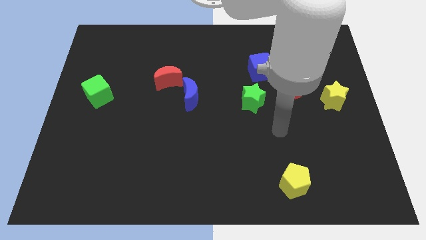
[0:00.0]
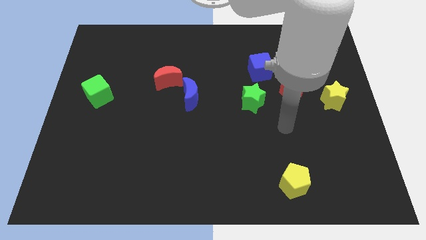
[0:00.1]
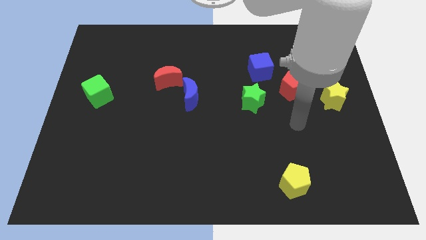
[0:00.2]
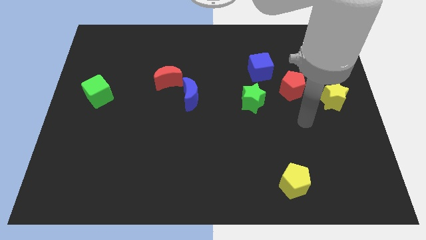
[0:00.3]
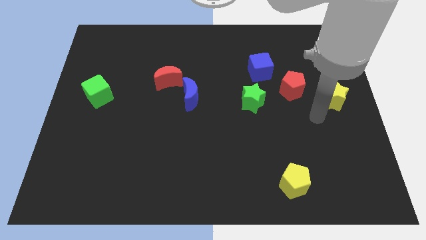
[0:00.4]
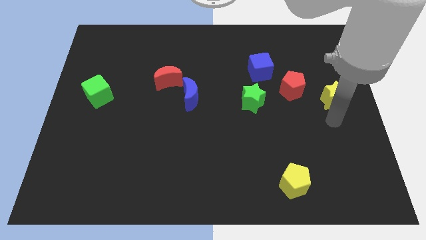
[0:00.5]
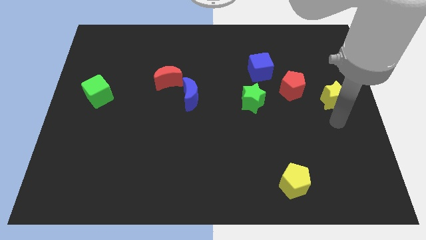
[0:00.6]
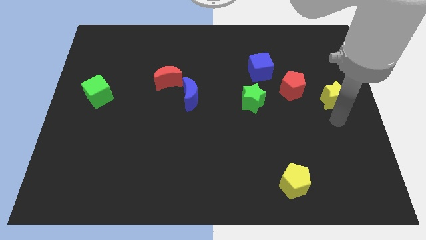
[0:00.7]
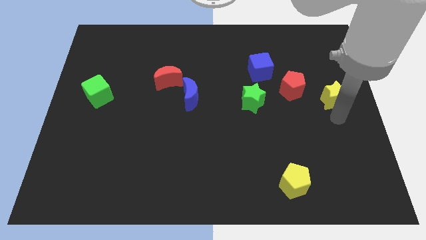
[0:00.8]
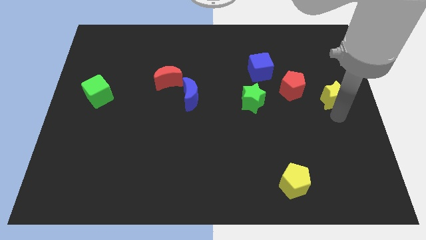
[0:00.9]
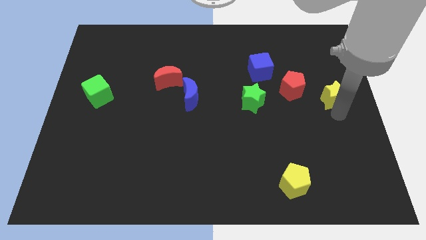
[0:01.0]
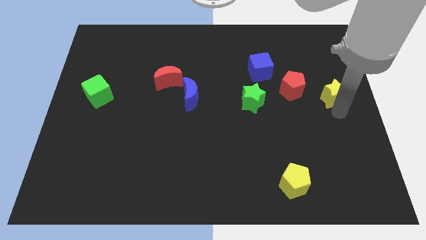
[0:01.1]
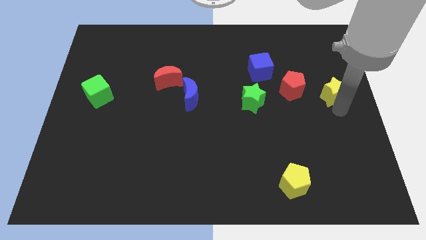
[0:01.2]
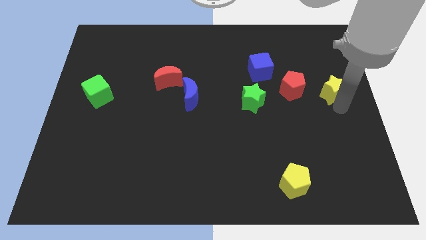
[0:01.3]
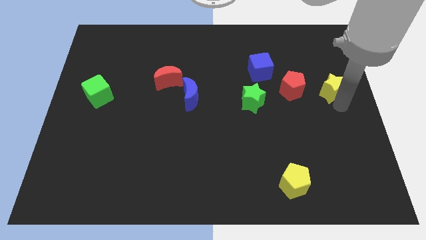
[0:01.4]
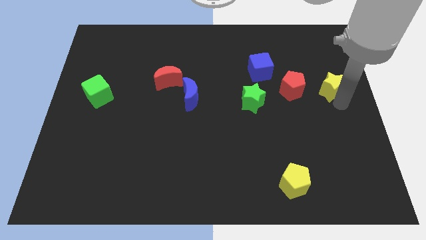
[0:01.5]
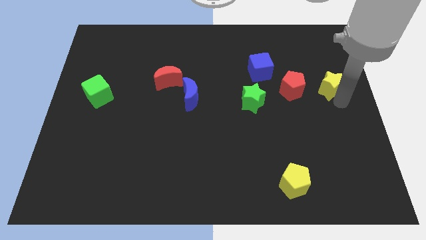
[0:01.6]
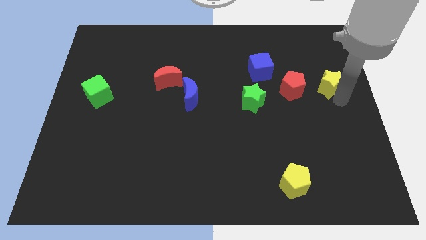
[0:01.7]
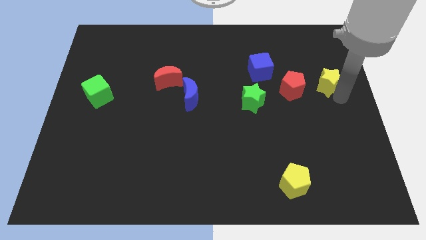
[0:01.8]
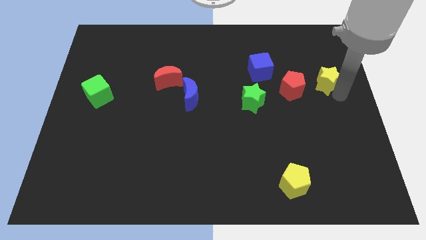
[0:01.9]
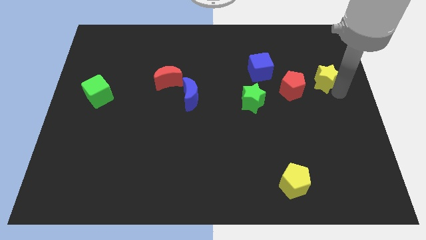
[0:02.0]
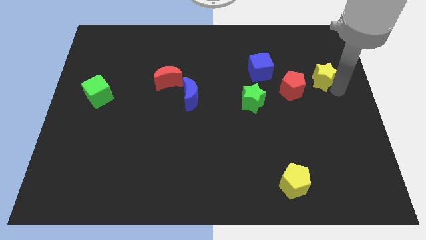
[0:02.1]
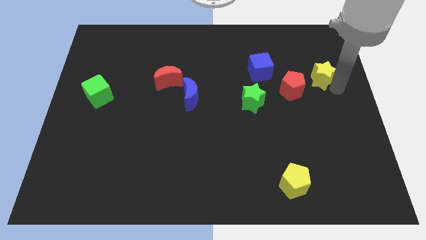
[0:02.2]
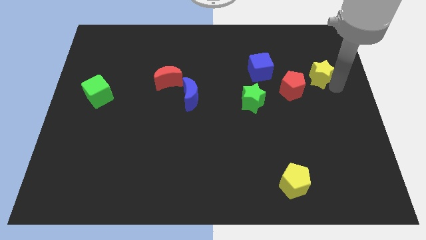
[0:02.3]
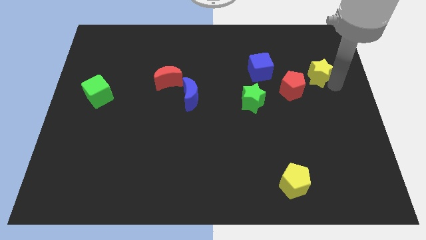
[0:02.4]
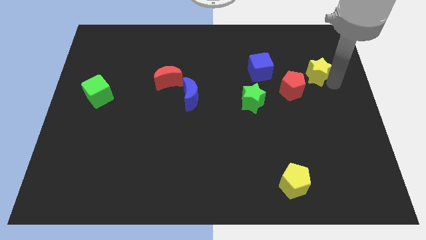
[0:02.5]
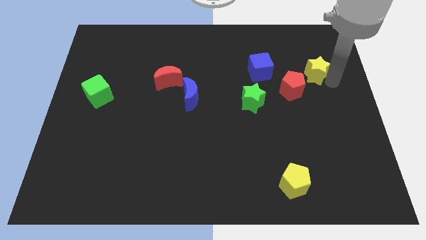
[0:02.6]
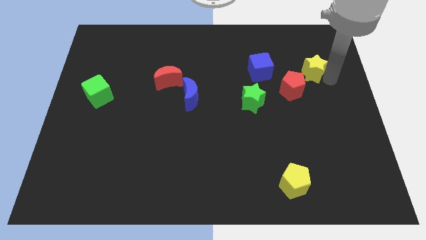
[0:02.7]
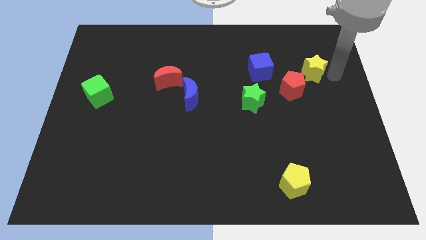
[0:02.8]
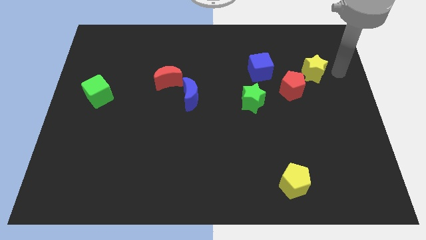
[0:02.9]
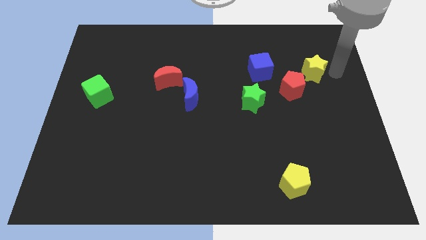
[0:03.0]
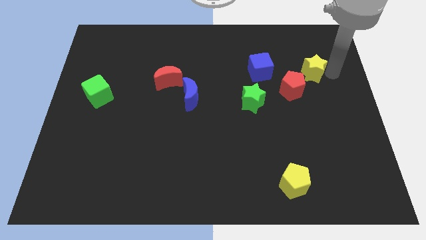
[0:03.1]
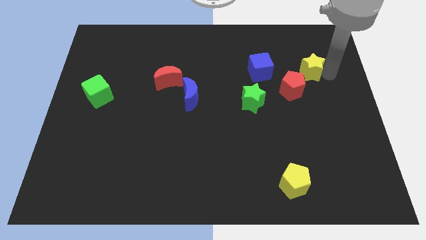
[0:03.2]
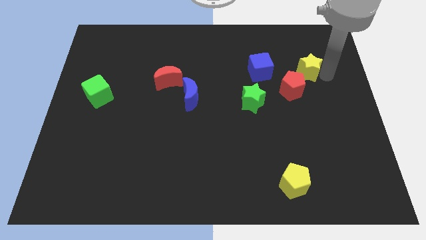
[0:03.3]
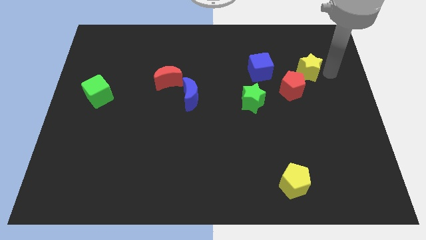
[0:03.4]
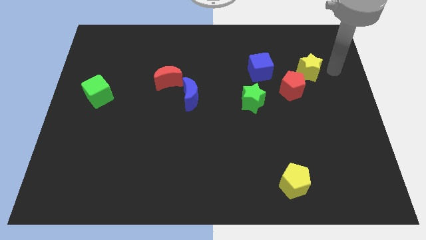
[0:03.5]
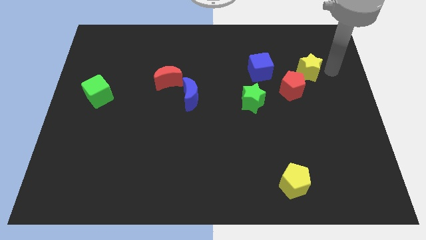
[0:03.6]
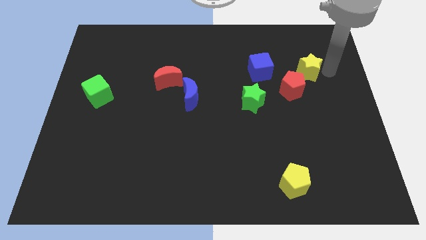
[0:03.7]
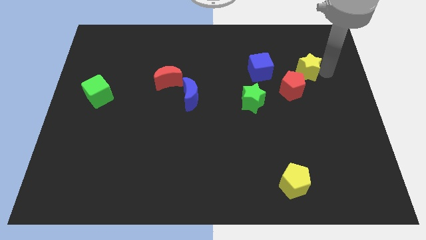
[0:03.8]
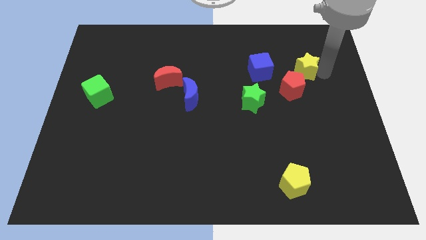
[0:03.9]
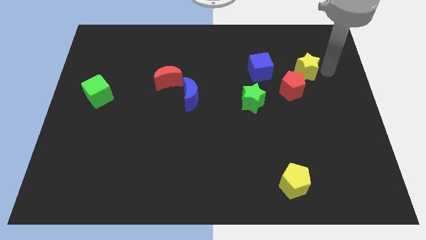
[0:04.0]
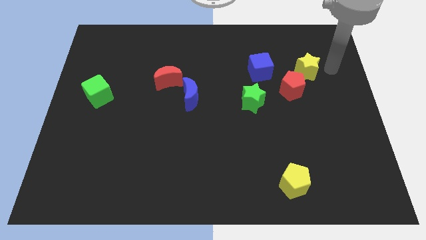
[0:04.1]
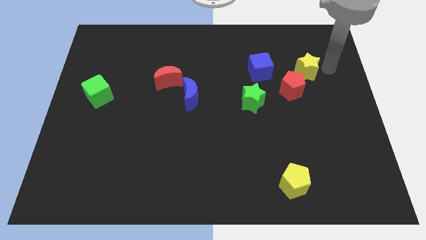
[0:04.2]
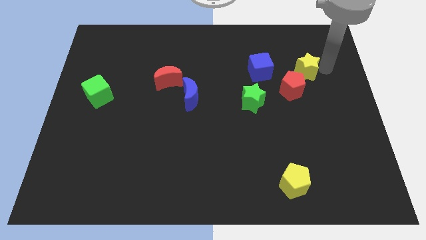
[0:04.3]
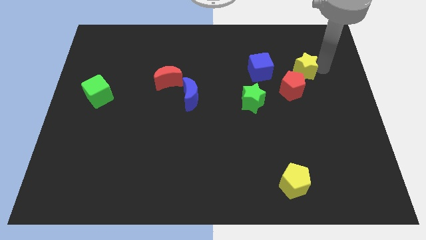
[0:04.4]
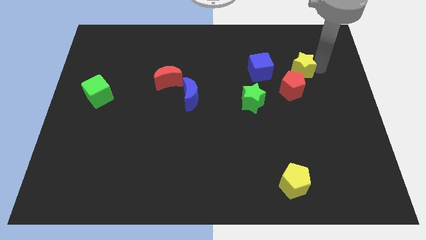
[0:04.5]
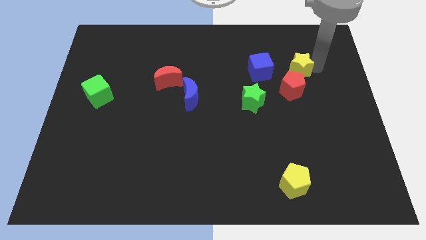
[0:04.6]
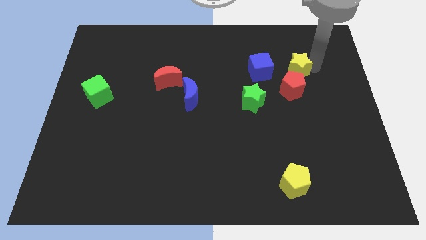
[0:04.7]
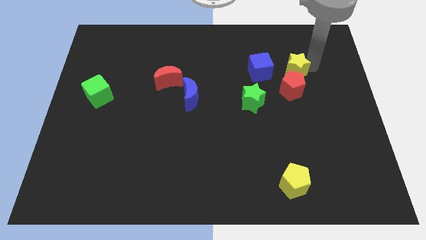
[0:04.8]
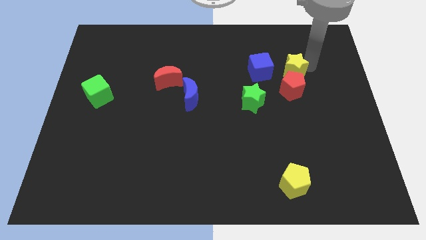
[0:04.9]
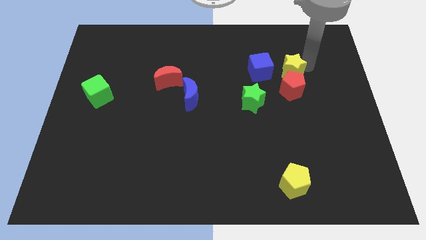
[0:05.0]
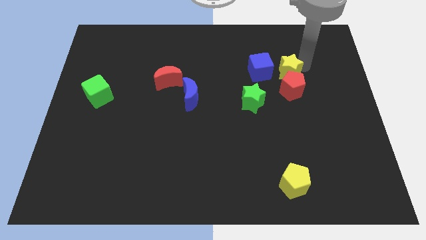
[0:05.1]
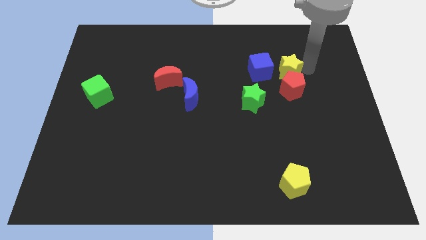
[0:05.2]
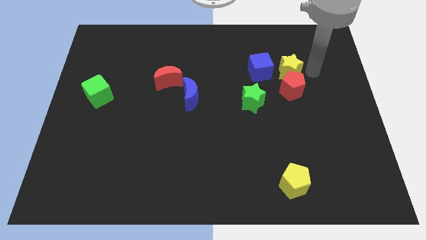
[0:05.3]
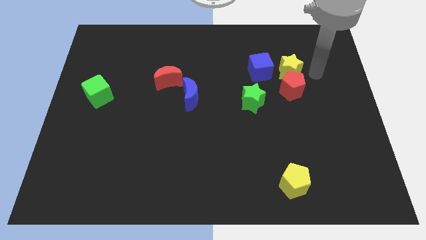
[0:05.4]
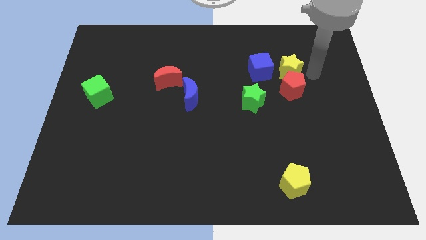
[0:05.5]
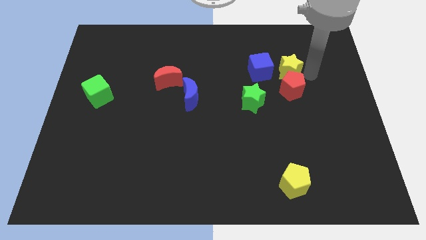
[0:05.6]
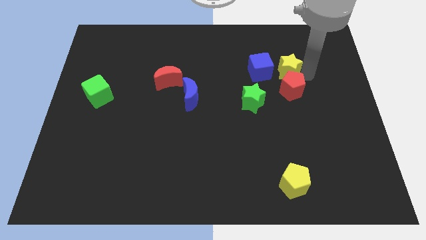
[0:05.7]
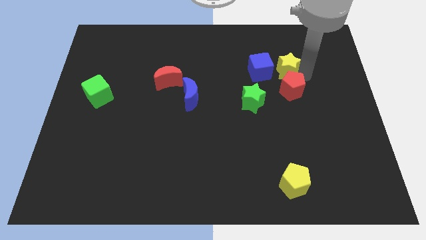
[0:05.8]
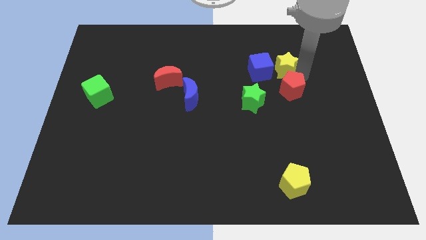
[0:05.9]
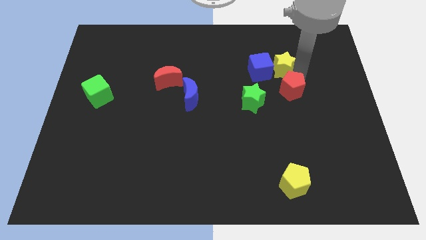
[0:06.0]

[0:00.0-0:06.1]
push the yellow star close to the blue cube
